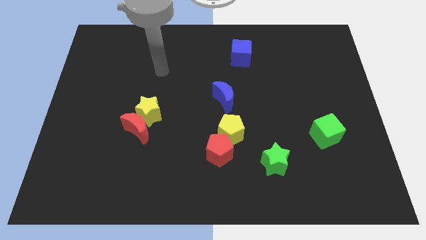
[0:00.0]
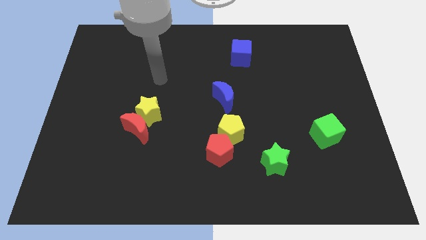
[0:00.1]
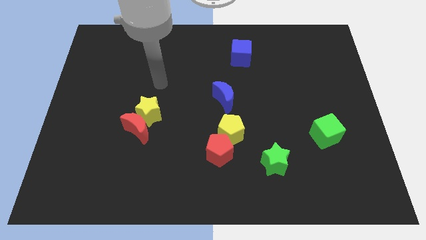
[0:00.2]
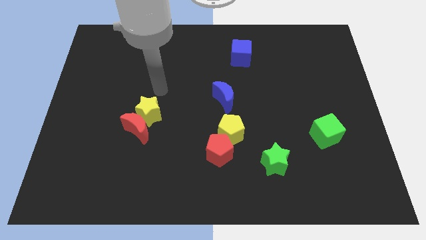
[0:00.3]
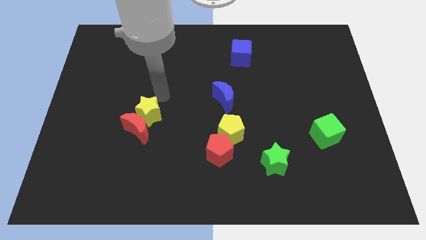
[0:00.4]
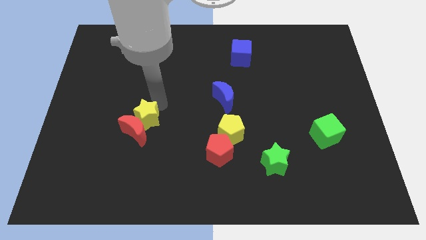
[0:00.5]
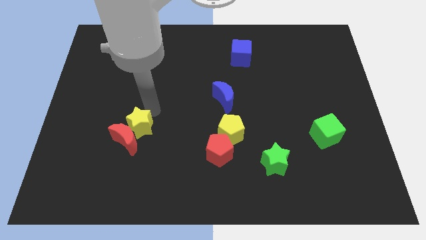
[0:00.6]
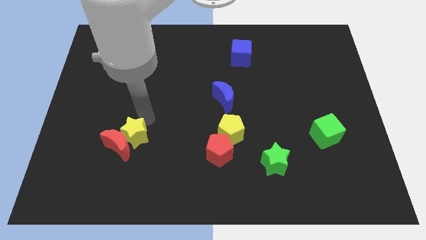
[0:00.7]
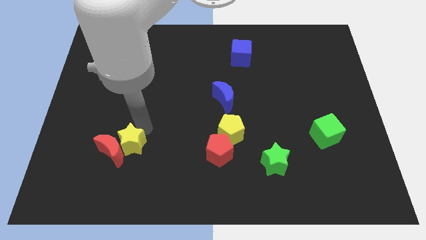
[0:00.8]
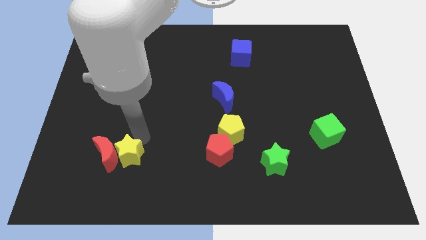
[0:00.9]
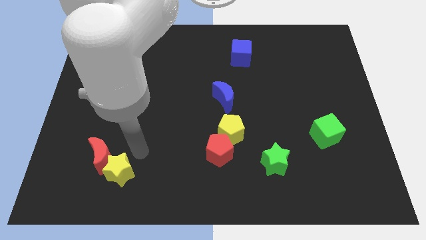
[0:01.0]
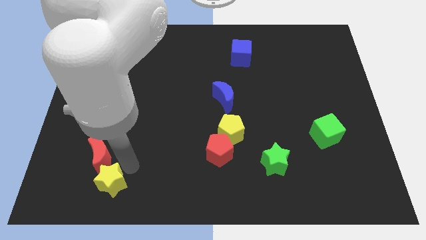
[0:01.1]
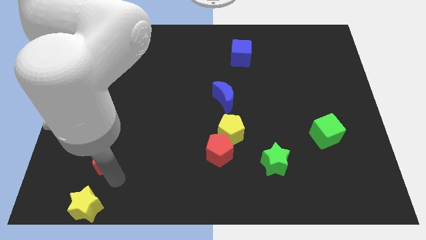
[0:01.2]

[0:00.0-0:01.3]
pull the red moon apart from the yellow star

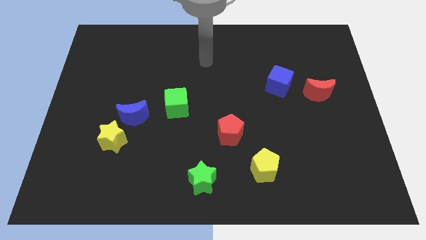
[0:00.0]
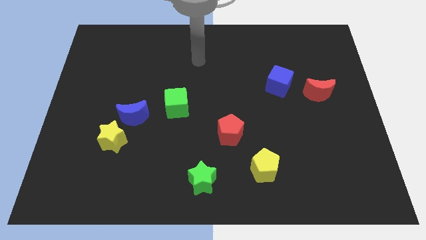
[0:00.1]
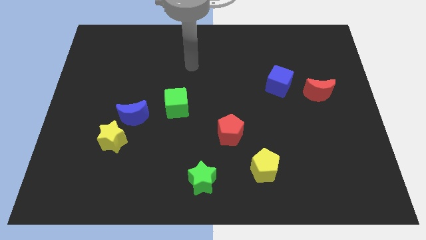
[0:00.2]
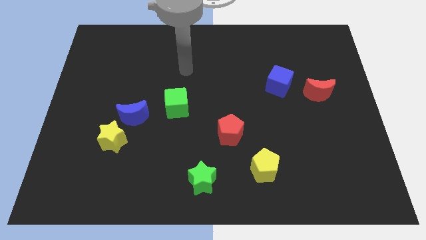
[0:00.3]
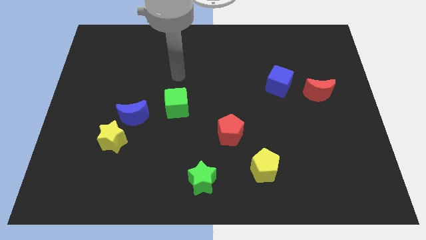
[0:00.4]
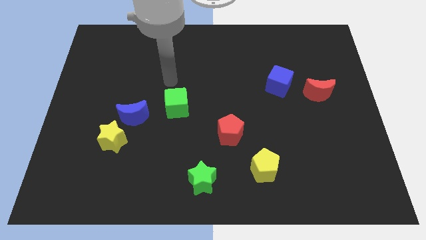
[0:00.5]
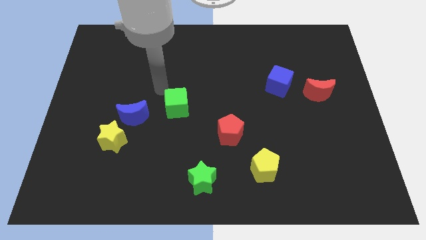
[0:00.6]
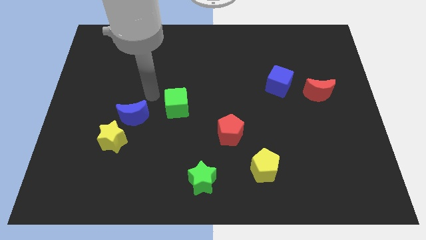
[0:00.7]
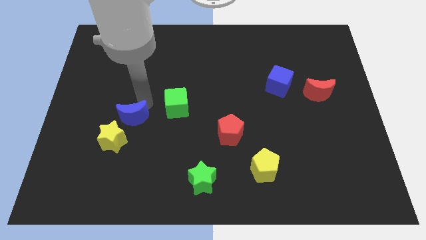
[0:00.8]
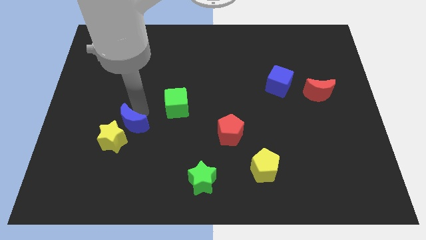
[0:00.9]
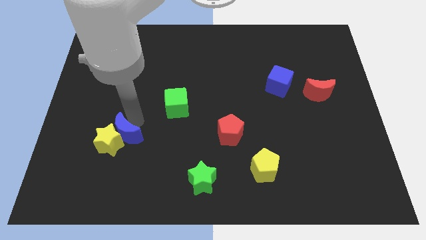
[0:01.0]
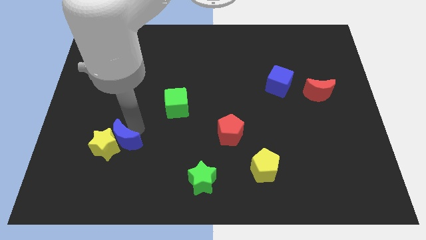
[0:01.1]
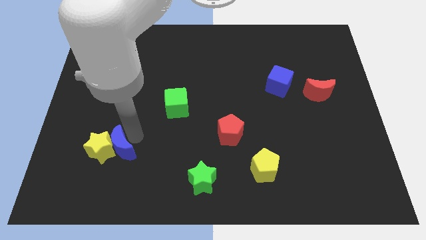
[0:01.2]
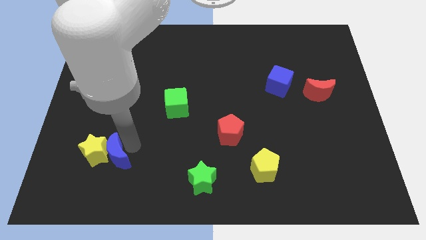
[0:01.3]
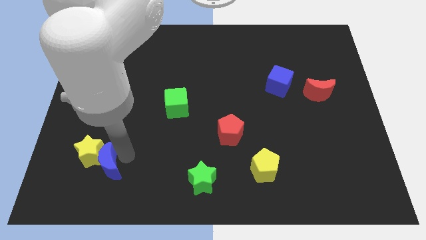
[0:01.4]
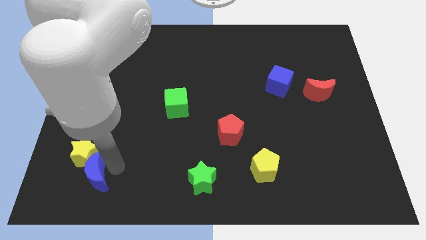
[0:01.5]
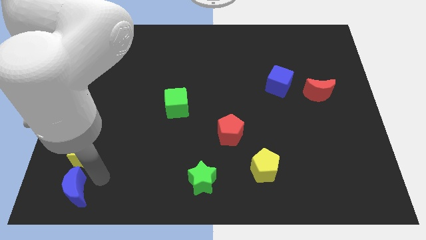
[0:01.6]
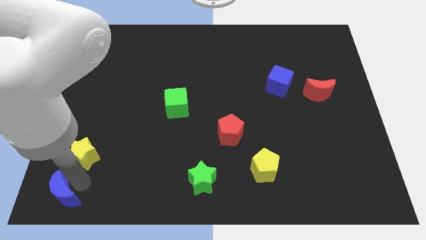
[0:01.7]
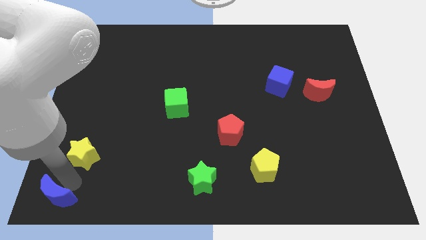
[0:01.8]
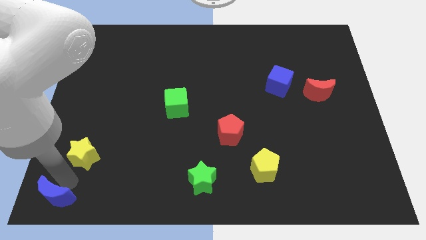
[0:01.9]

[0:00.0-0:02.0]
separate the yellow star from the blue moon

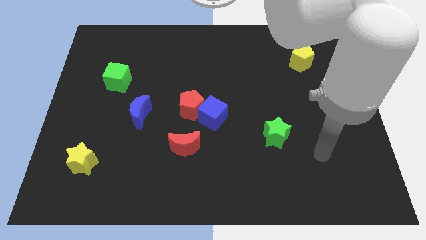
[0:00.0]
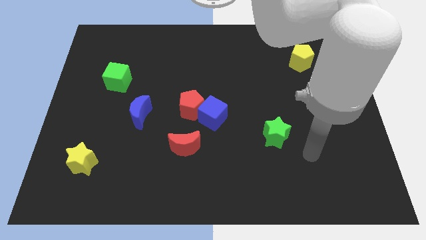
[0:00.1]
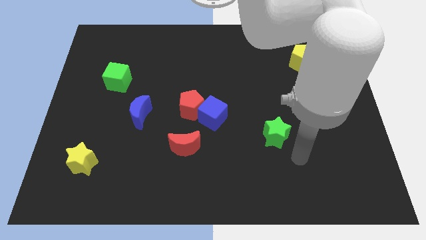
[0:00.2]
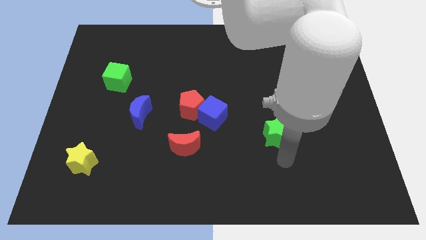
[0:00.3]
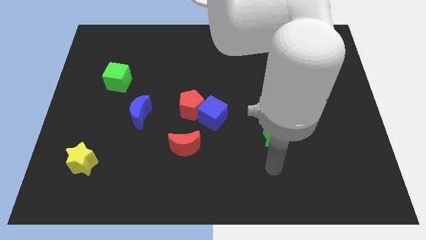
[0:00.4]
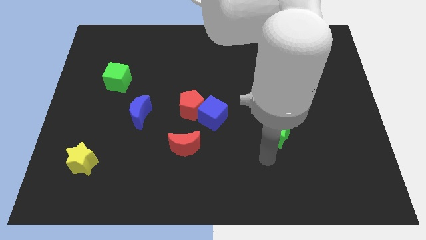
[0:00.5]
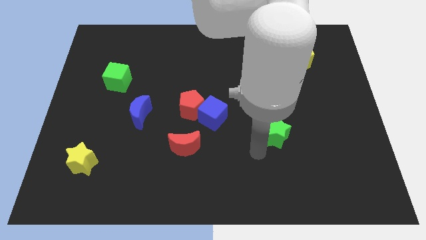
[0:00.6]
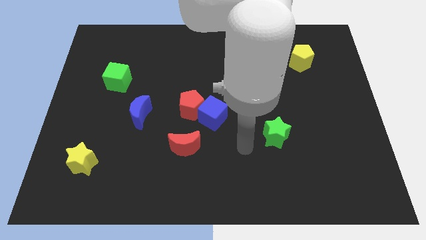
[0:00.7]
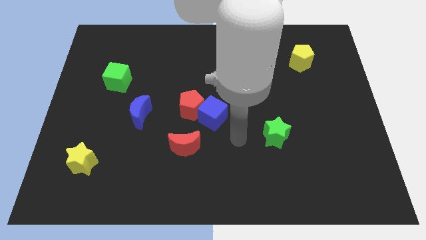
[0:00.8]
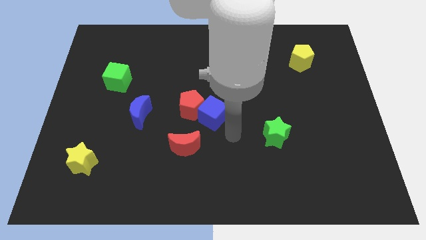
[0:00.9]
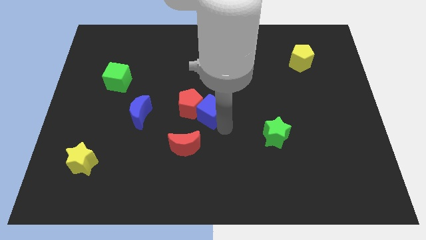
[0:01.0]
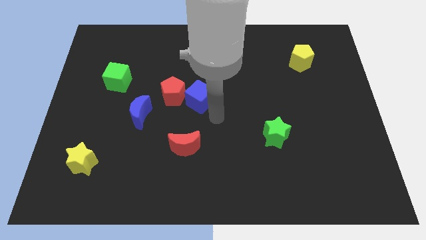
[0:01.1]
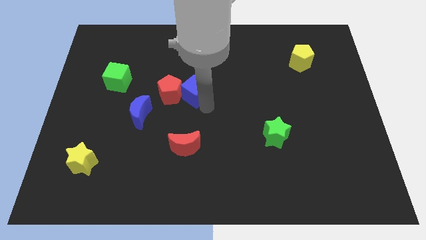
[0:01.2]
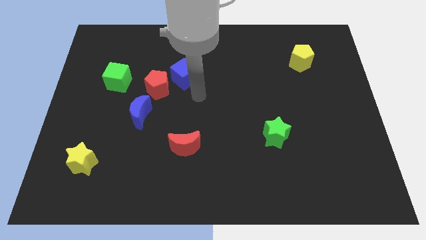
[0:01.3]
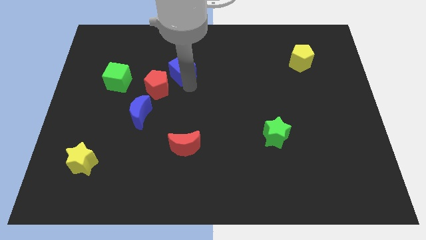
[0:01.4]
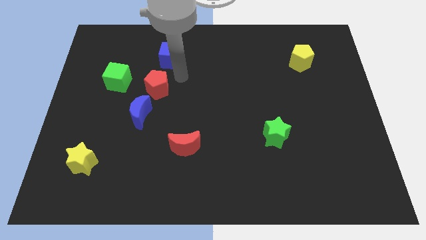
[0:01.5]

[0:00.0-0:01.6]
pull the red pentagon apart from the blue cube

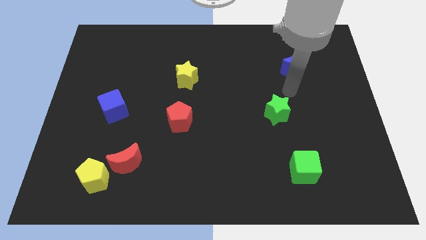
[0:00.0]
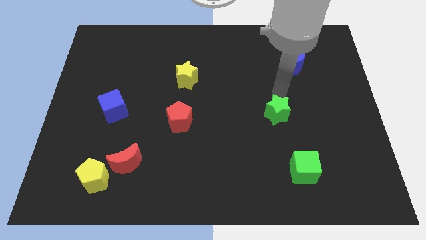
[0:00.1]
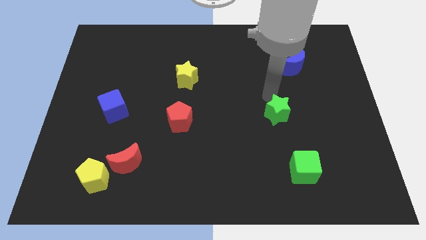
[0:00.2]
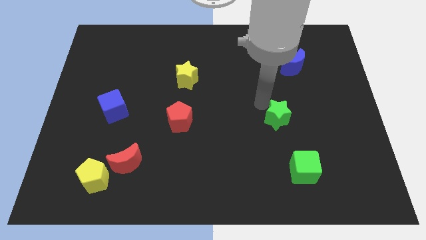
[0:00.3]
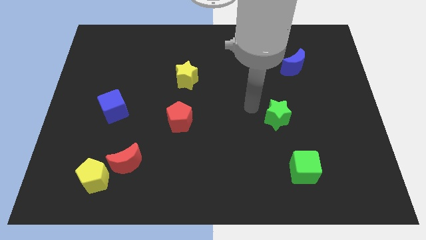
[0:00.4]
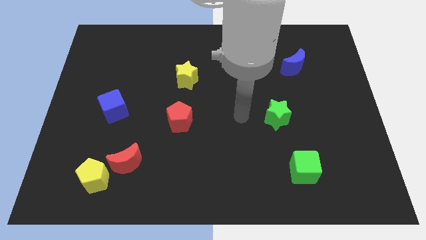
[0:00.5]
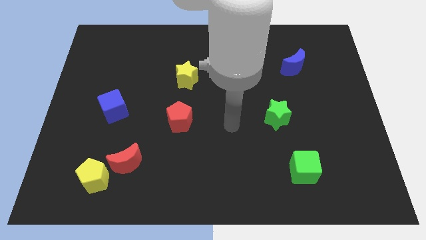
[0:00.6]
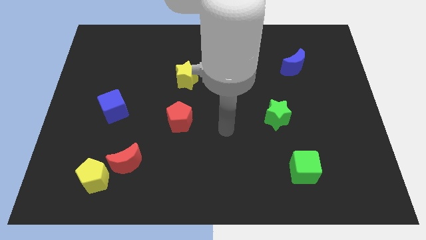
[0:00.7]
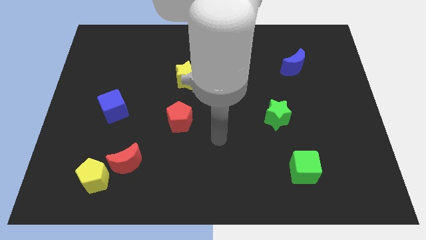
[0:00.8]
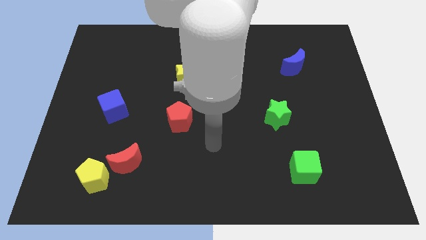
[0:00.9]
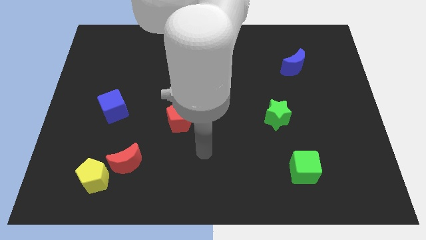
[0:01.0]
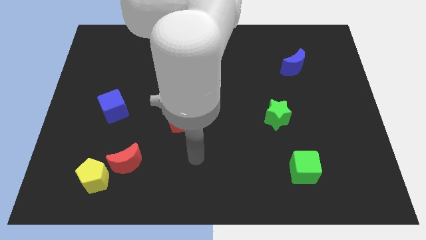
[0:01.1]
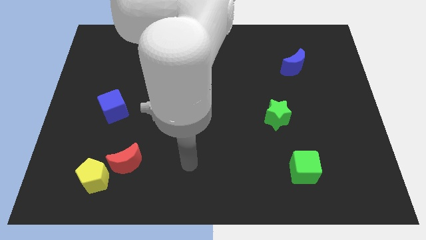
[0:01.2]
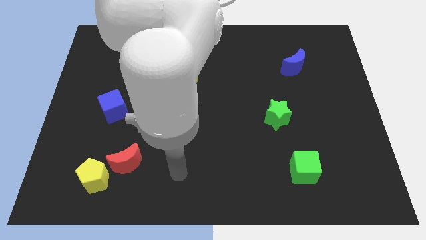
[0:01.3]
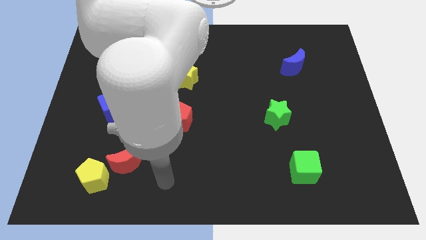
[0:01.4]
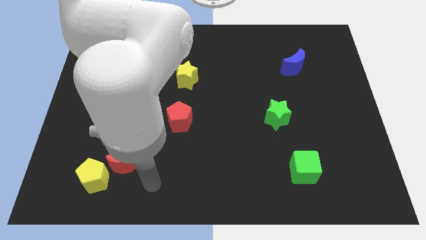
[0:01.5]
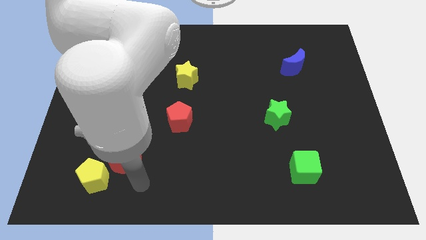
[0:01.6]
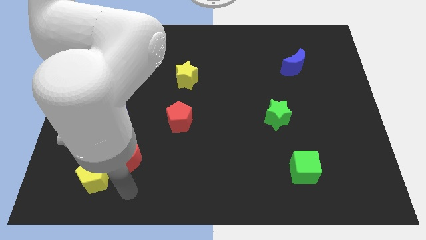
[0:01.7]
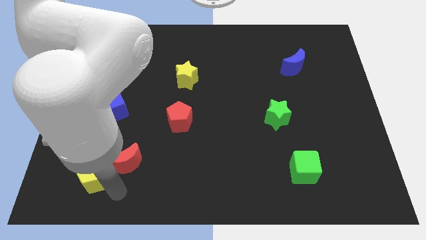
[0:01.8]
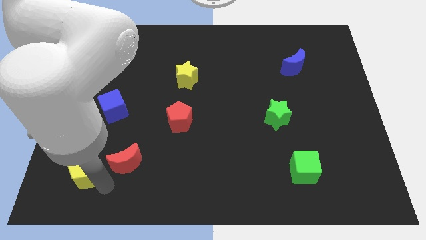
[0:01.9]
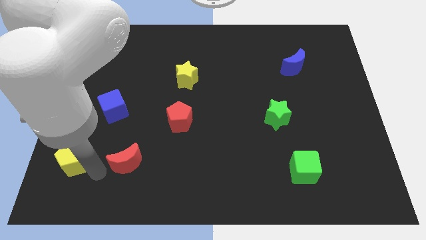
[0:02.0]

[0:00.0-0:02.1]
move the red moon away from the yellow pentagon

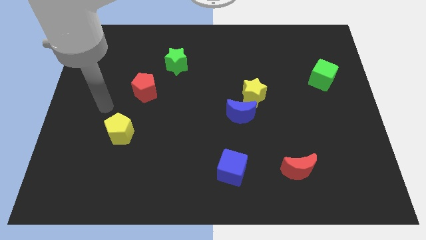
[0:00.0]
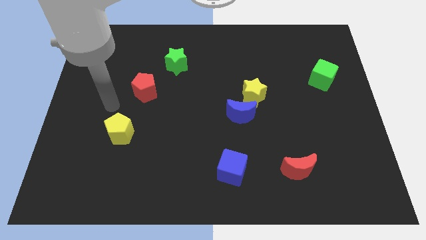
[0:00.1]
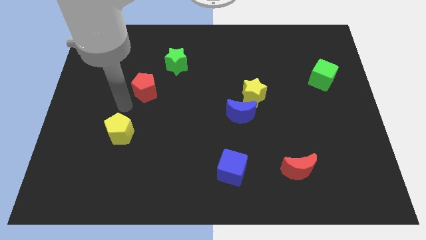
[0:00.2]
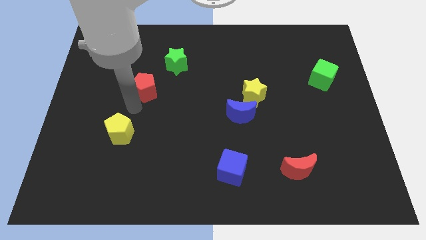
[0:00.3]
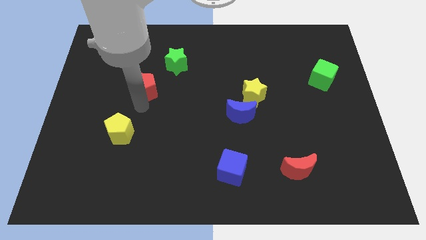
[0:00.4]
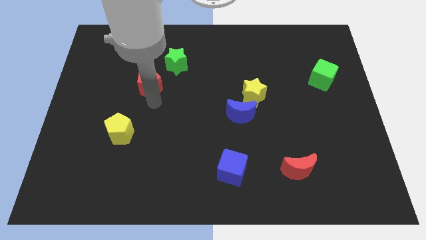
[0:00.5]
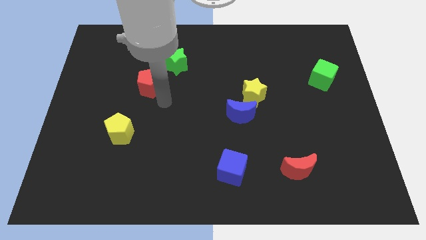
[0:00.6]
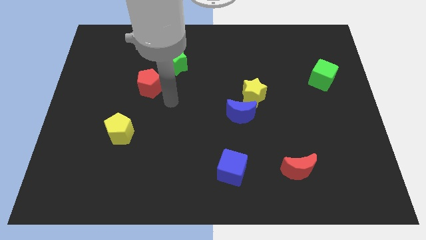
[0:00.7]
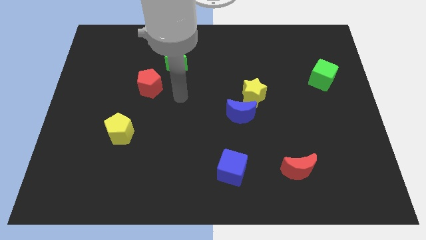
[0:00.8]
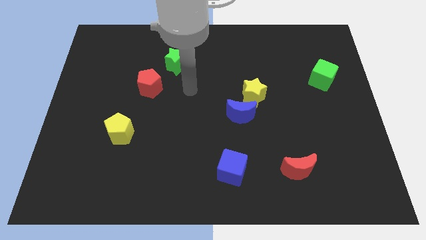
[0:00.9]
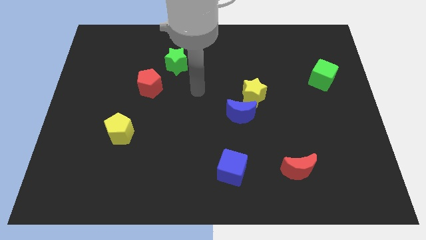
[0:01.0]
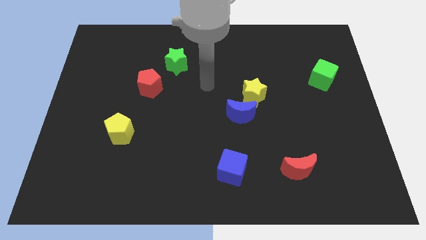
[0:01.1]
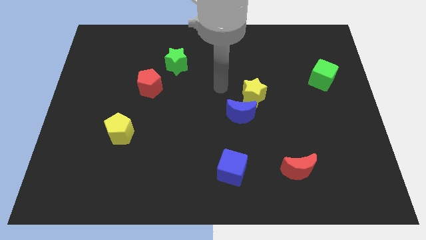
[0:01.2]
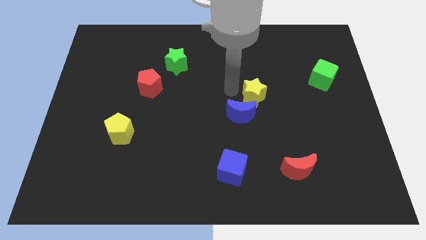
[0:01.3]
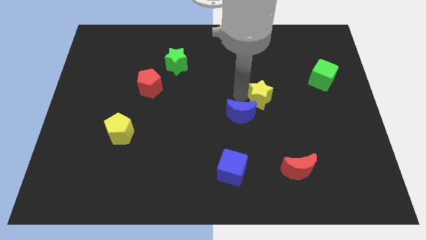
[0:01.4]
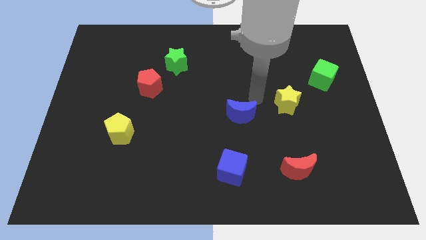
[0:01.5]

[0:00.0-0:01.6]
pull the blue moon apart from the yellow star

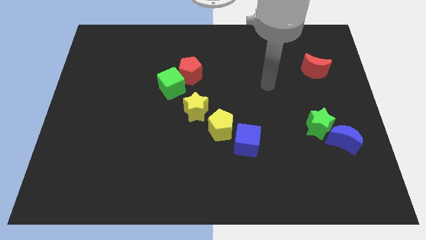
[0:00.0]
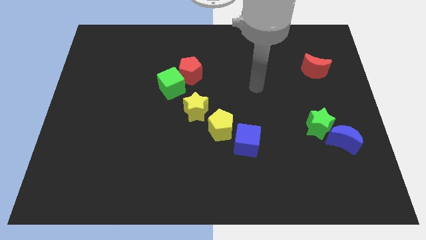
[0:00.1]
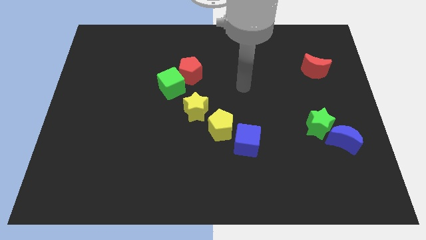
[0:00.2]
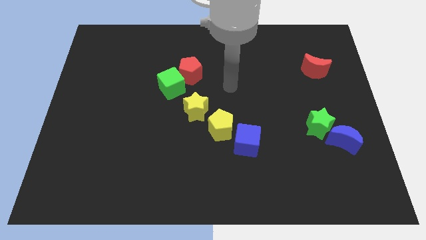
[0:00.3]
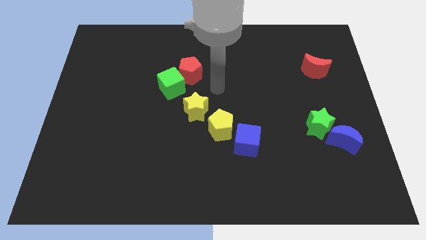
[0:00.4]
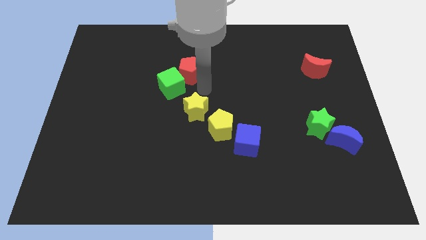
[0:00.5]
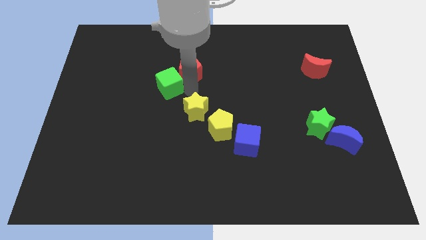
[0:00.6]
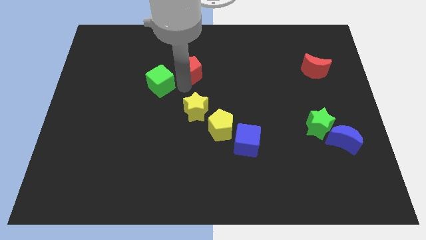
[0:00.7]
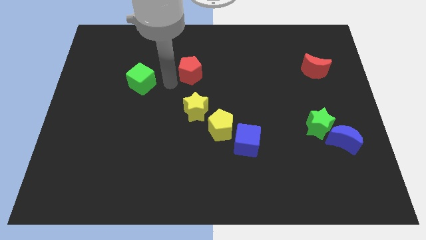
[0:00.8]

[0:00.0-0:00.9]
move the red pentagon away from the green cube
